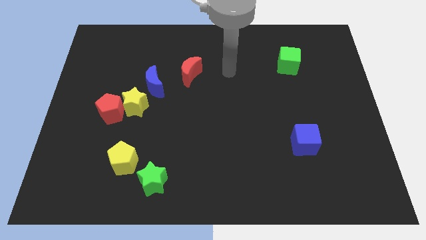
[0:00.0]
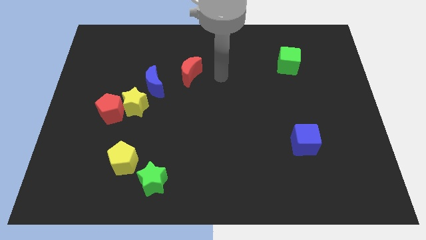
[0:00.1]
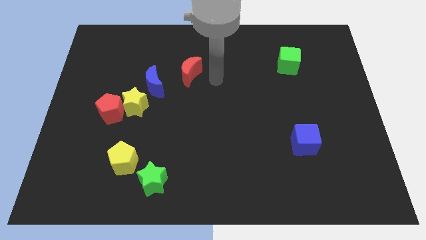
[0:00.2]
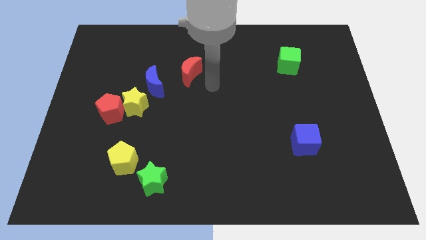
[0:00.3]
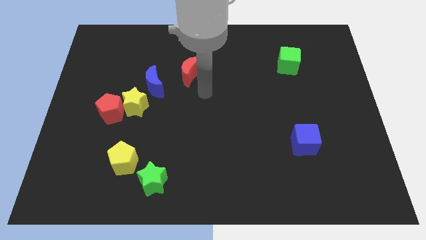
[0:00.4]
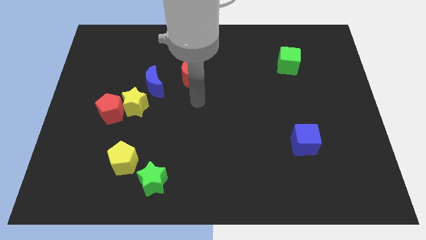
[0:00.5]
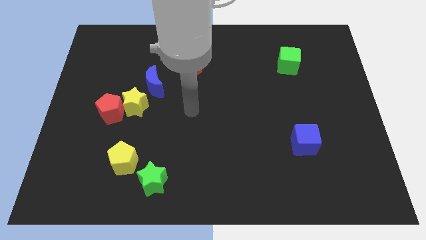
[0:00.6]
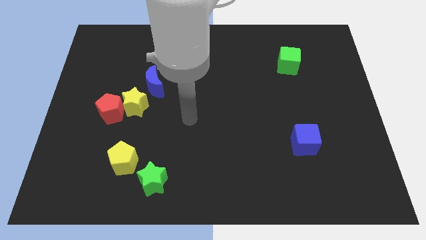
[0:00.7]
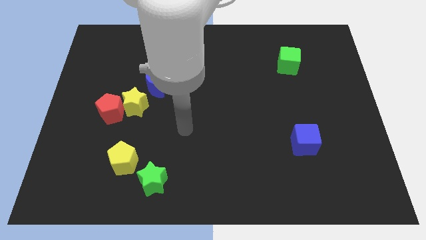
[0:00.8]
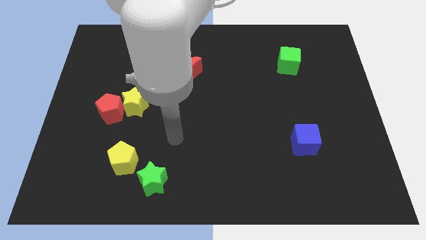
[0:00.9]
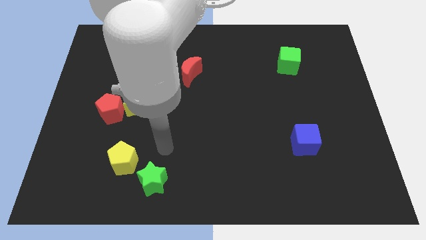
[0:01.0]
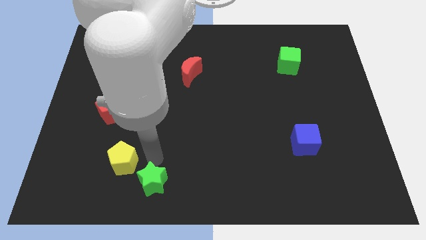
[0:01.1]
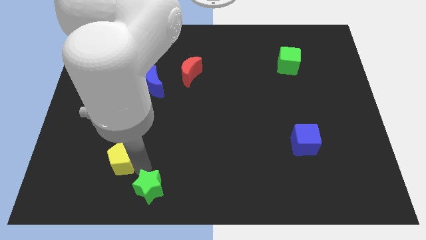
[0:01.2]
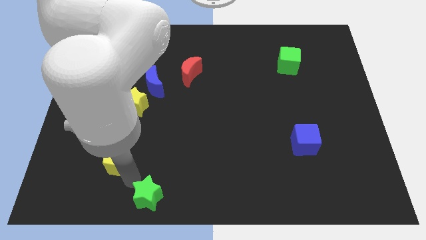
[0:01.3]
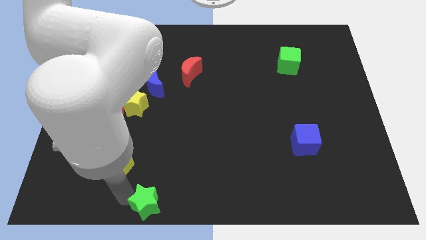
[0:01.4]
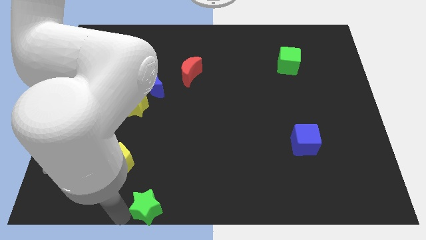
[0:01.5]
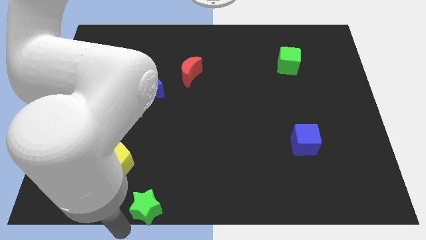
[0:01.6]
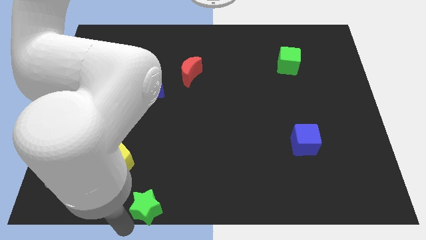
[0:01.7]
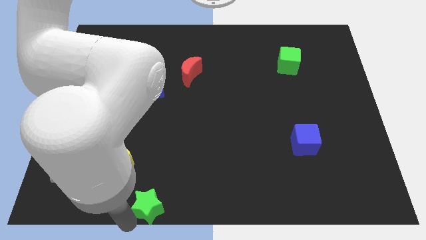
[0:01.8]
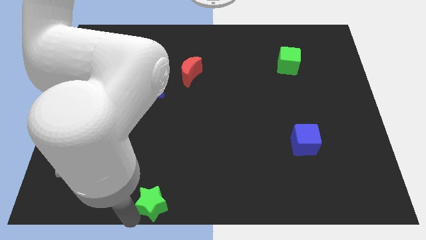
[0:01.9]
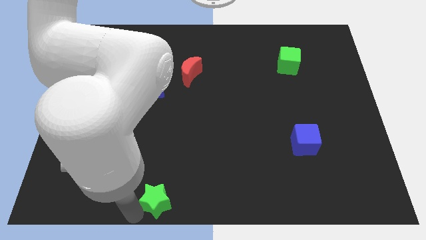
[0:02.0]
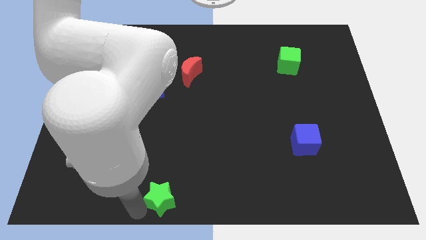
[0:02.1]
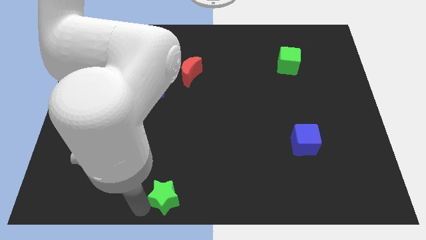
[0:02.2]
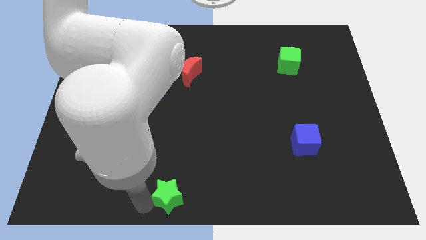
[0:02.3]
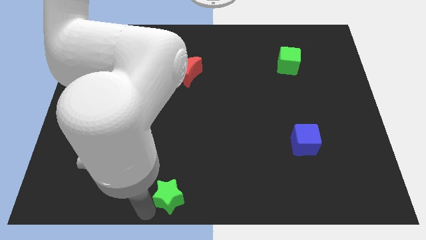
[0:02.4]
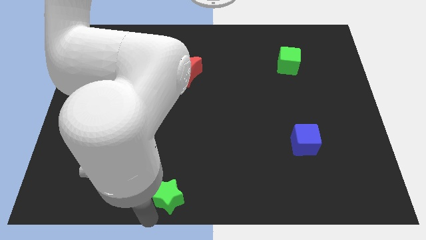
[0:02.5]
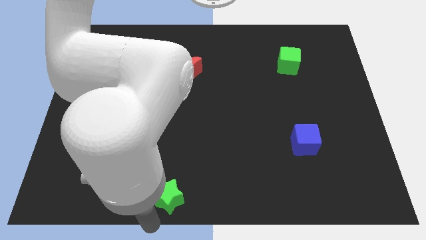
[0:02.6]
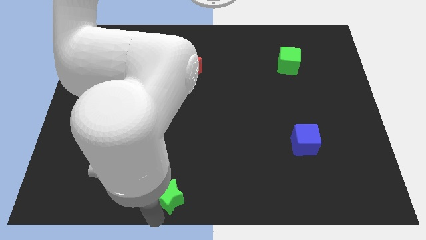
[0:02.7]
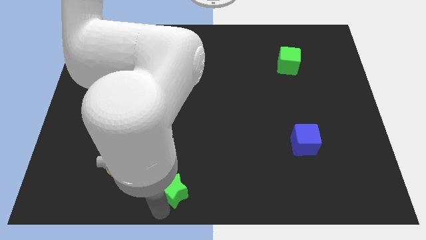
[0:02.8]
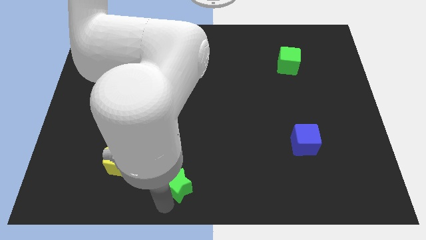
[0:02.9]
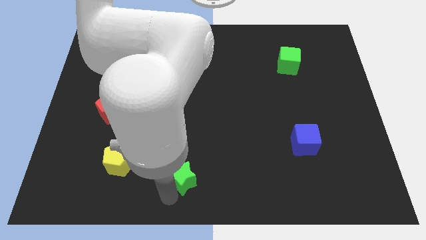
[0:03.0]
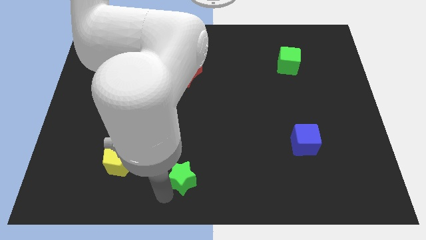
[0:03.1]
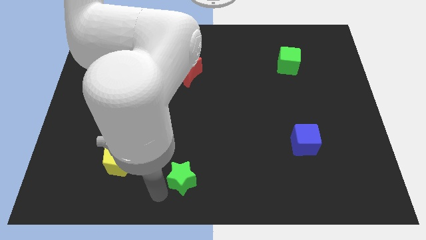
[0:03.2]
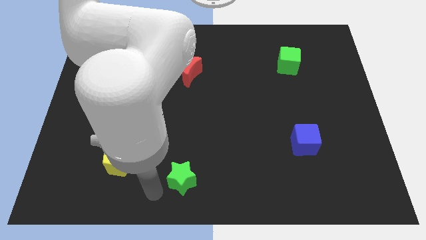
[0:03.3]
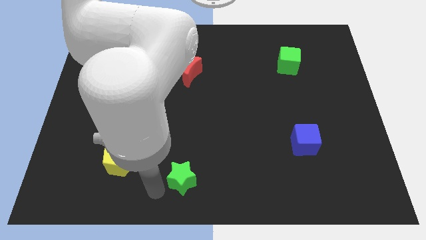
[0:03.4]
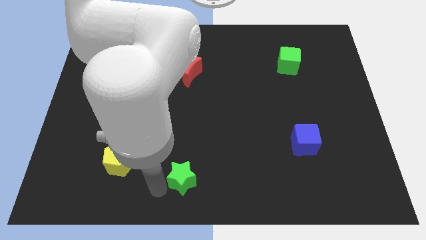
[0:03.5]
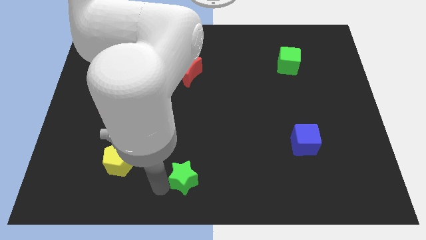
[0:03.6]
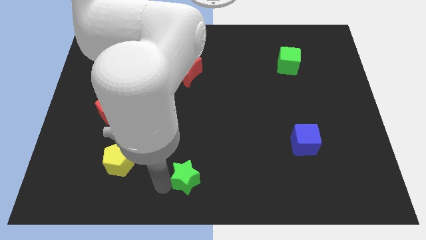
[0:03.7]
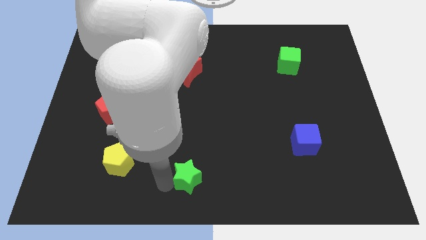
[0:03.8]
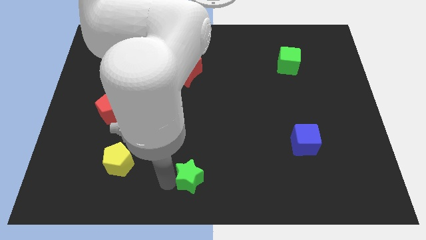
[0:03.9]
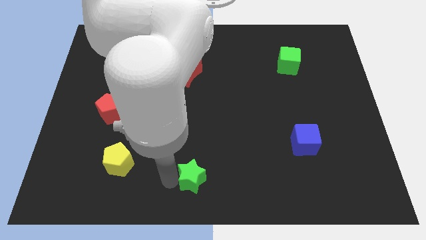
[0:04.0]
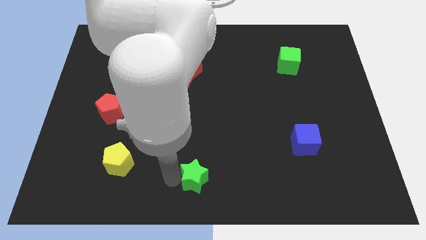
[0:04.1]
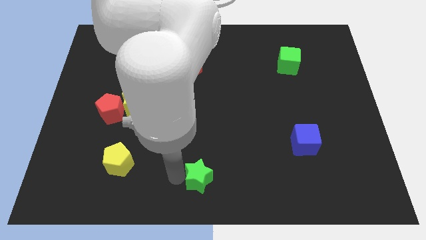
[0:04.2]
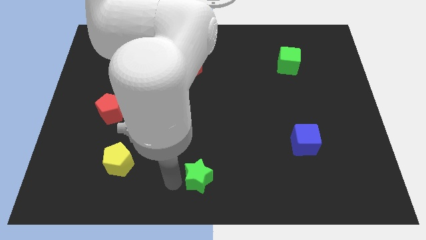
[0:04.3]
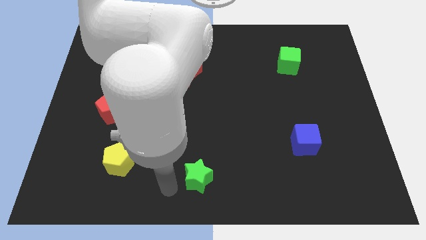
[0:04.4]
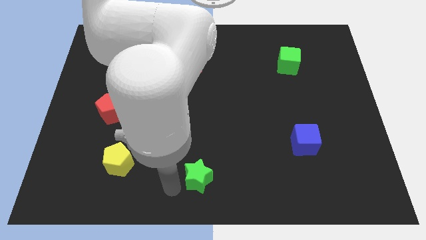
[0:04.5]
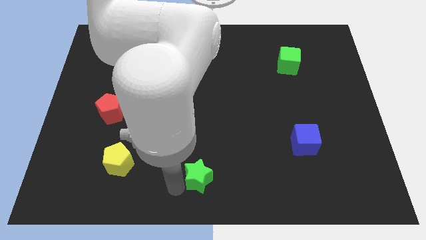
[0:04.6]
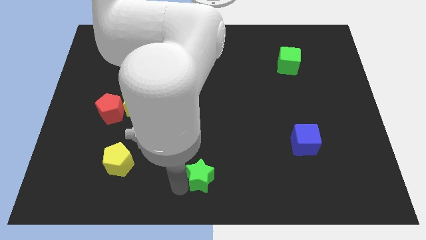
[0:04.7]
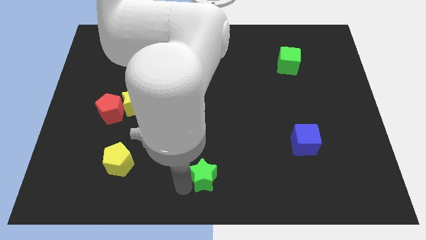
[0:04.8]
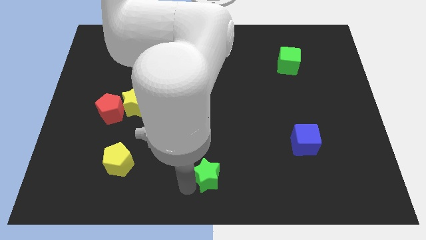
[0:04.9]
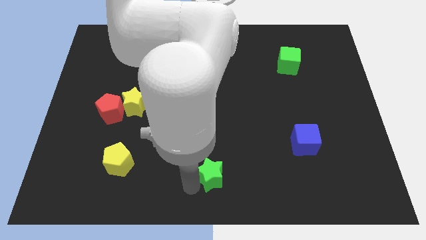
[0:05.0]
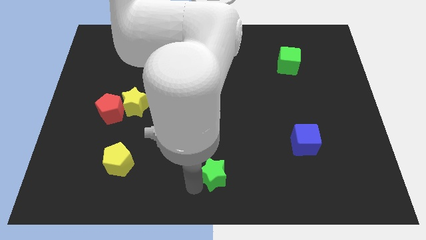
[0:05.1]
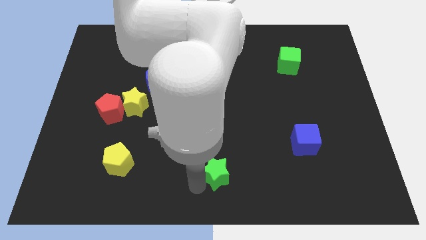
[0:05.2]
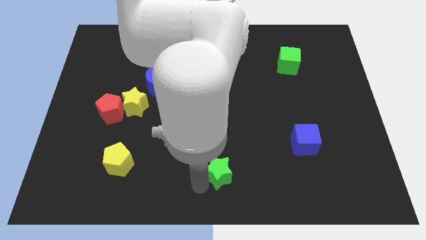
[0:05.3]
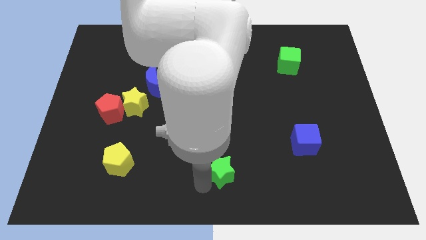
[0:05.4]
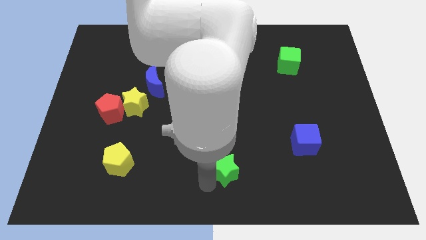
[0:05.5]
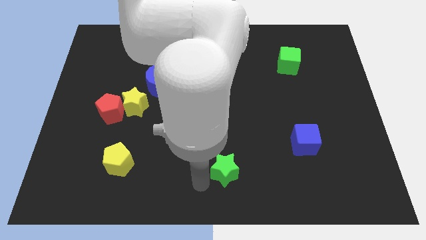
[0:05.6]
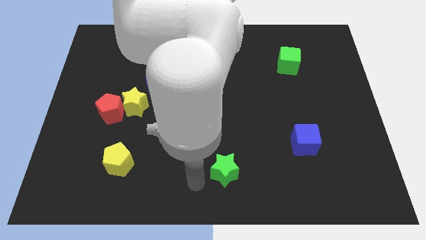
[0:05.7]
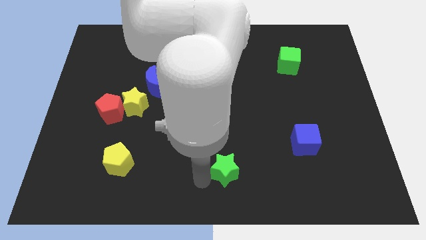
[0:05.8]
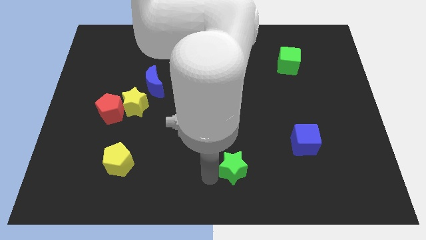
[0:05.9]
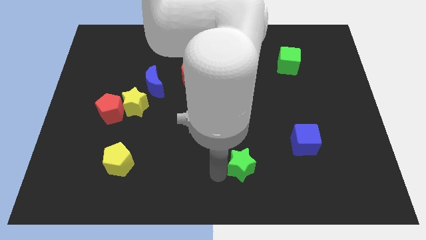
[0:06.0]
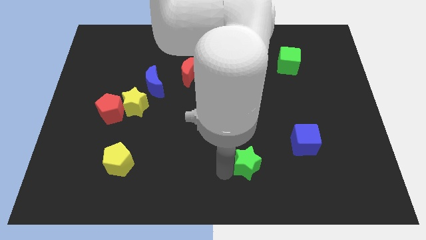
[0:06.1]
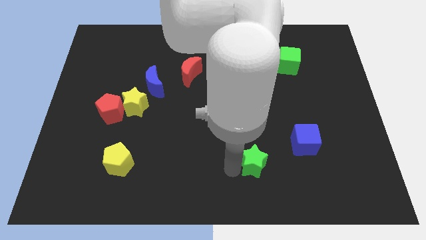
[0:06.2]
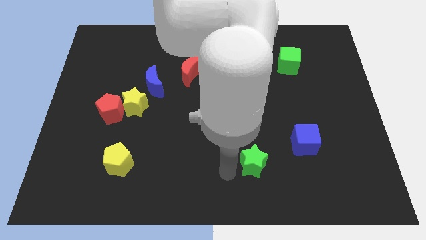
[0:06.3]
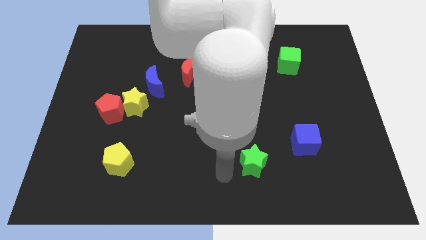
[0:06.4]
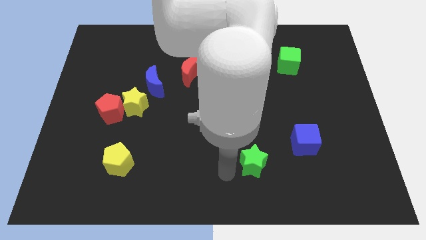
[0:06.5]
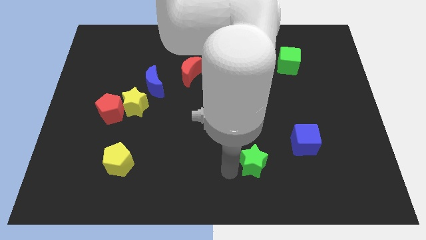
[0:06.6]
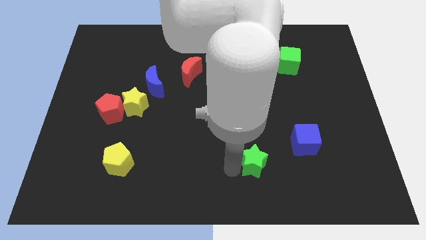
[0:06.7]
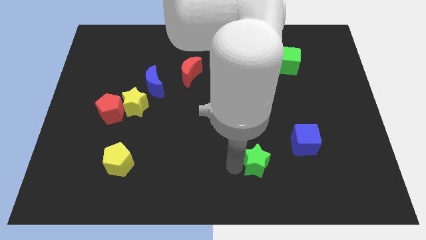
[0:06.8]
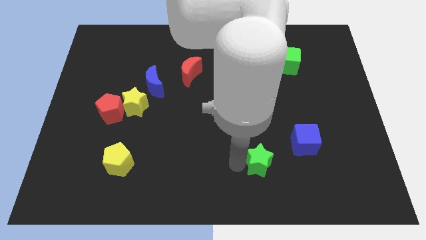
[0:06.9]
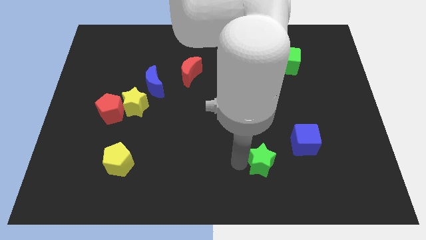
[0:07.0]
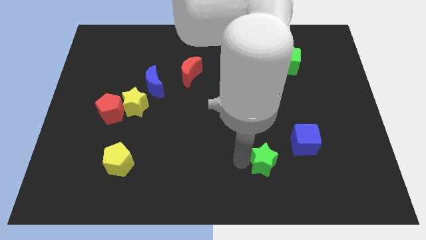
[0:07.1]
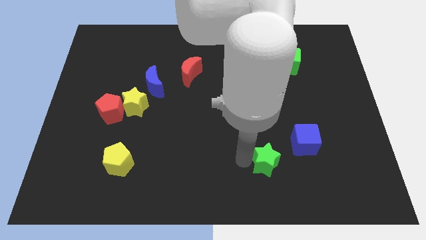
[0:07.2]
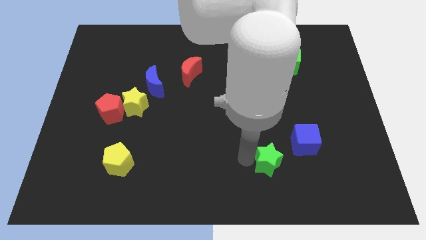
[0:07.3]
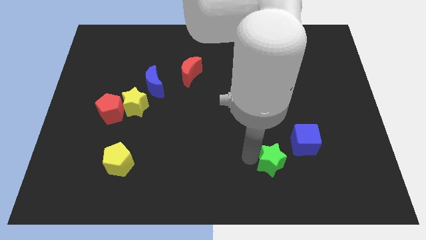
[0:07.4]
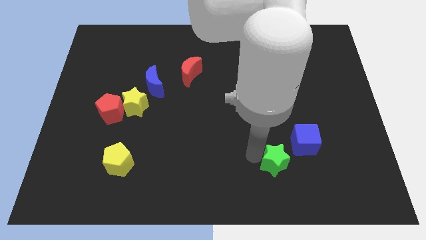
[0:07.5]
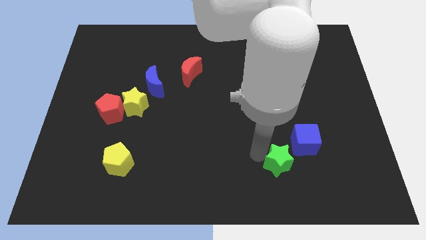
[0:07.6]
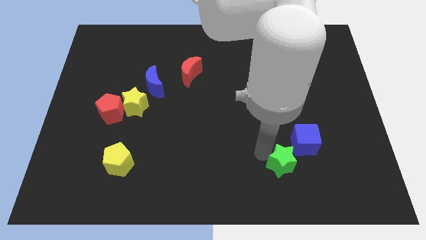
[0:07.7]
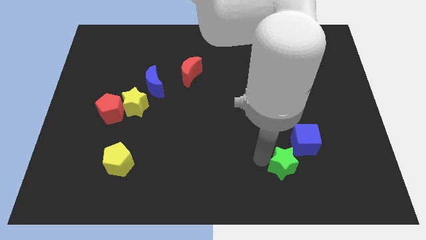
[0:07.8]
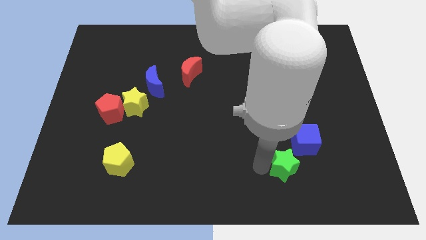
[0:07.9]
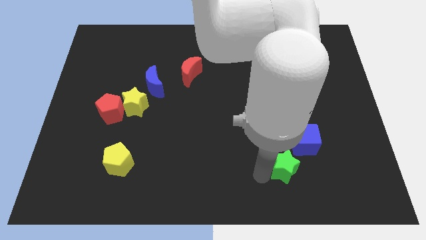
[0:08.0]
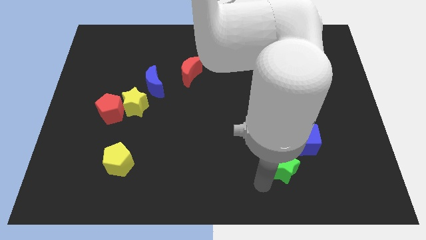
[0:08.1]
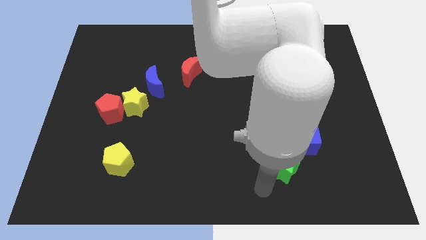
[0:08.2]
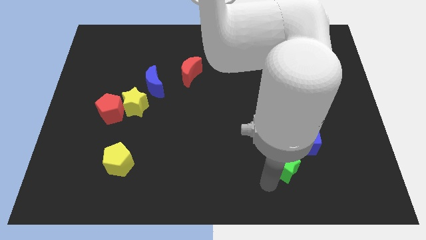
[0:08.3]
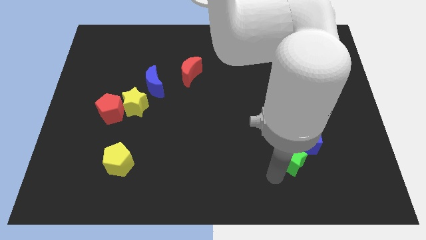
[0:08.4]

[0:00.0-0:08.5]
push the green star close to the blue cube
